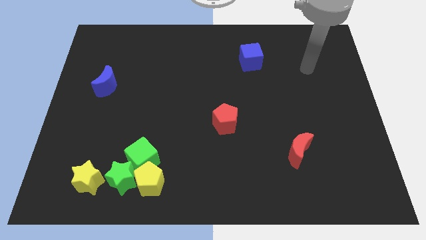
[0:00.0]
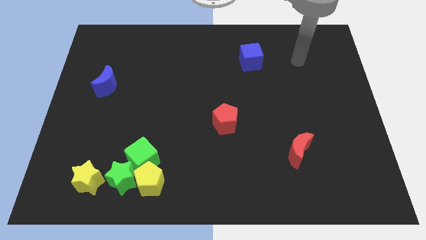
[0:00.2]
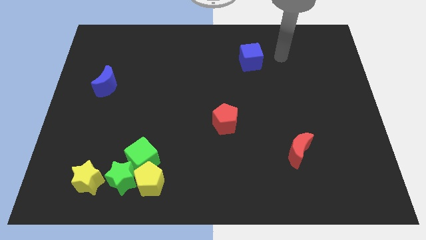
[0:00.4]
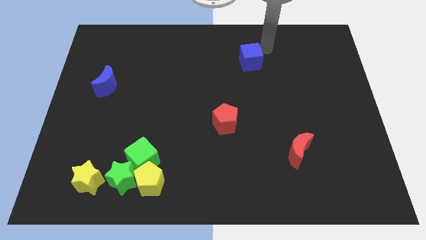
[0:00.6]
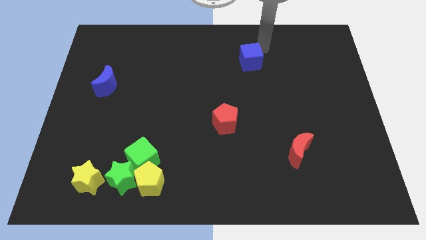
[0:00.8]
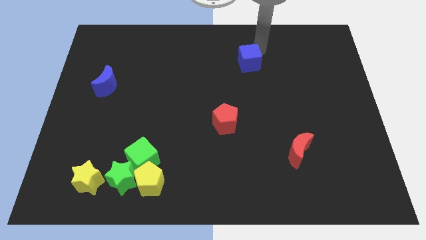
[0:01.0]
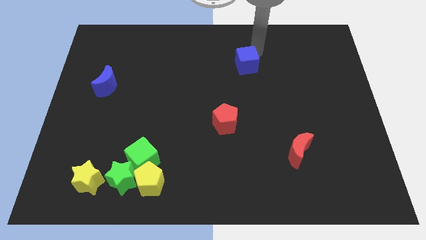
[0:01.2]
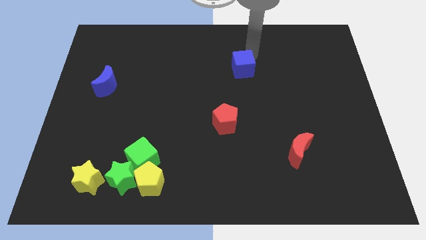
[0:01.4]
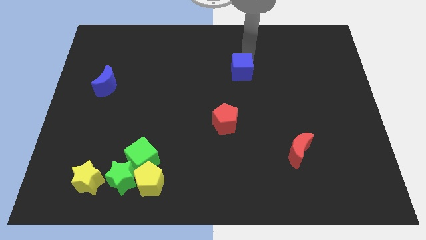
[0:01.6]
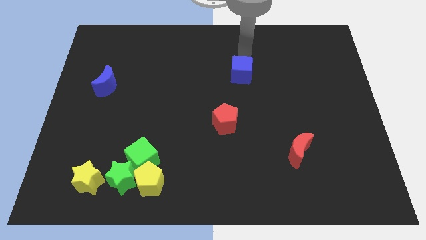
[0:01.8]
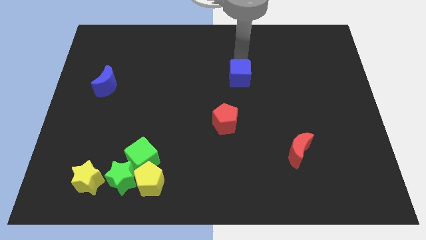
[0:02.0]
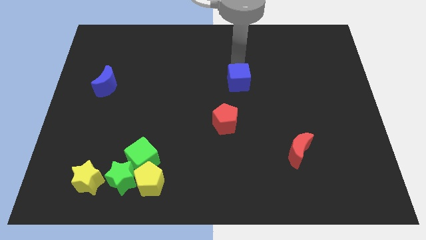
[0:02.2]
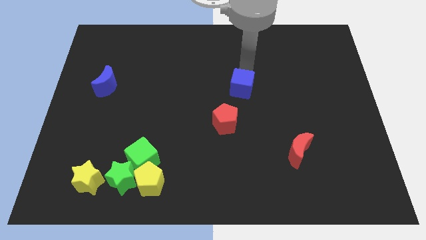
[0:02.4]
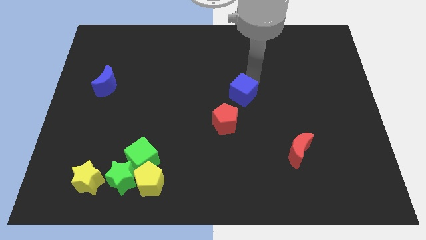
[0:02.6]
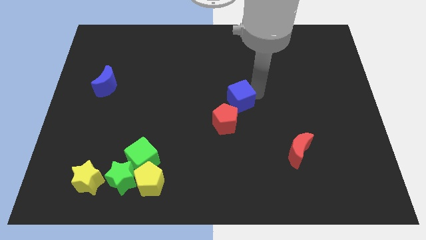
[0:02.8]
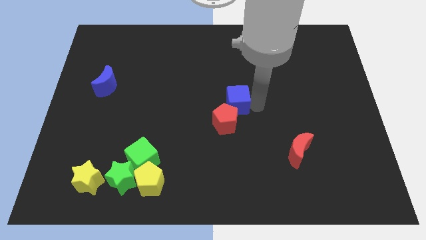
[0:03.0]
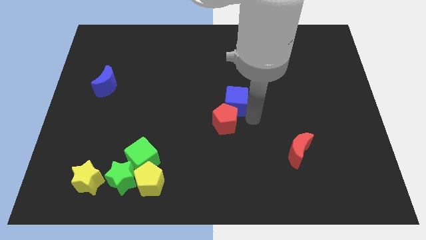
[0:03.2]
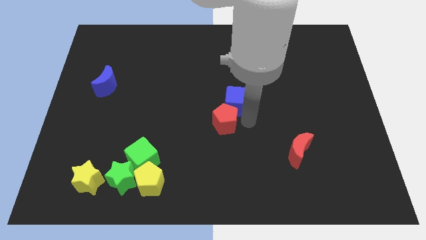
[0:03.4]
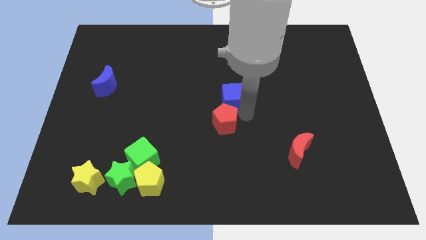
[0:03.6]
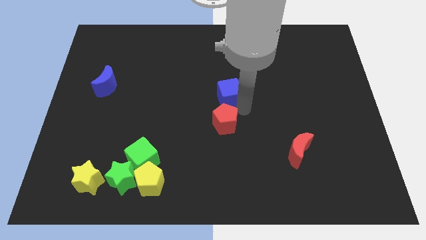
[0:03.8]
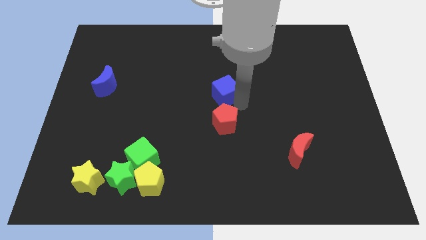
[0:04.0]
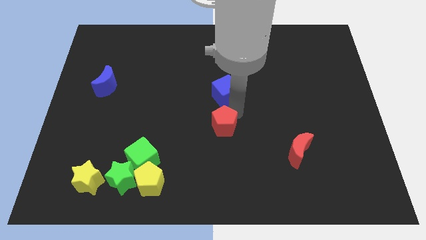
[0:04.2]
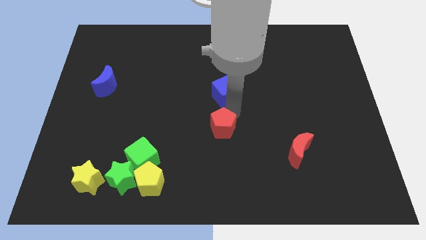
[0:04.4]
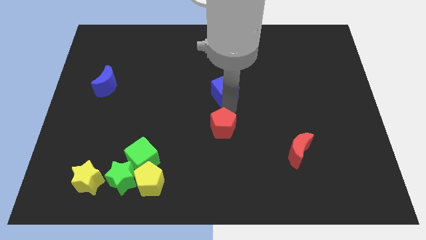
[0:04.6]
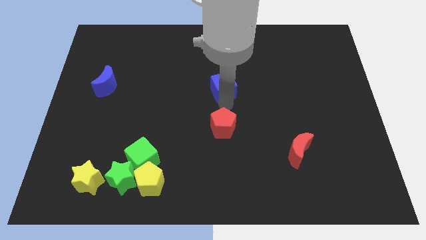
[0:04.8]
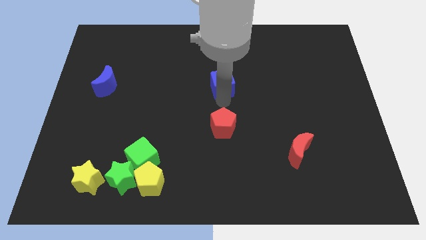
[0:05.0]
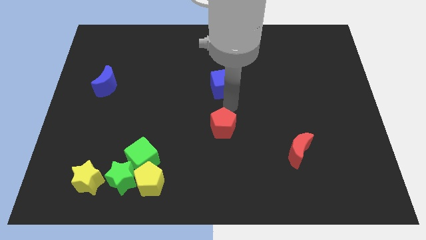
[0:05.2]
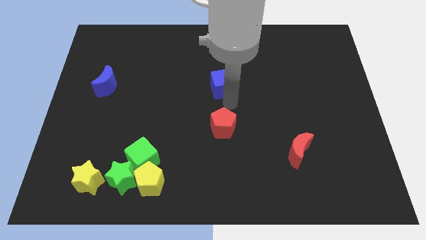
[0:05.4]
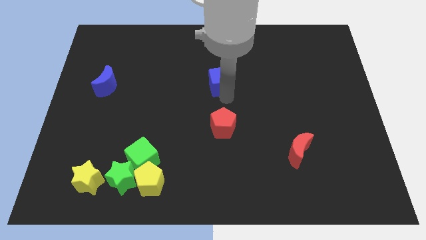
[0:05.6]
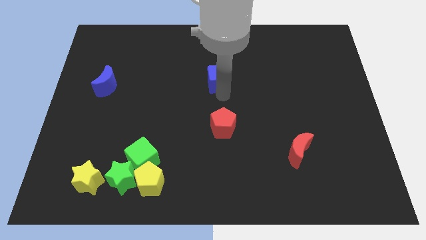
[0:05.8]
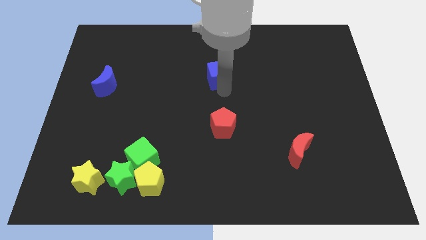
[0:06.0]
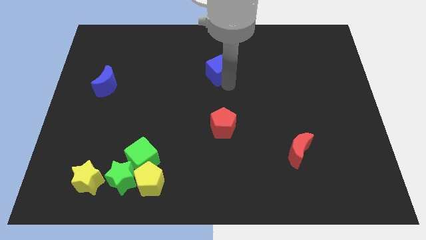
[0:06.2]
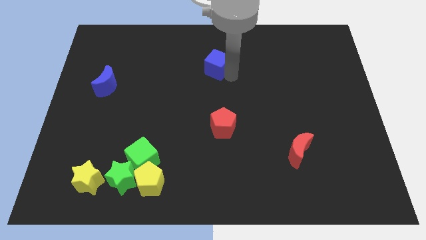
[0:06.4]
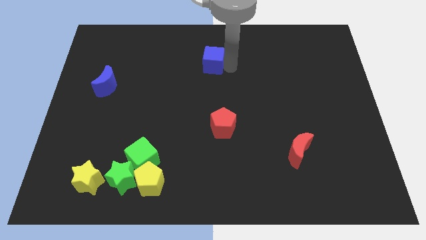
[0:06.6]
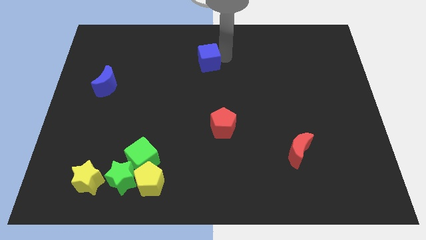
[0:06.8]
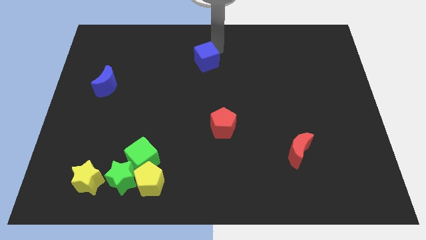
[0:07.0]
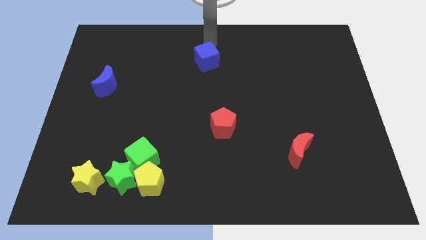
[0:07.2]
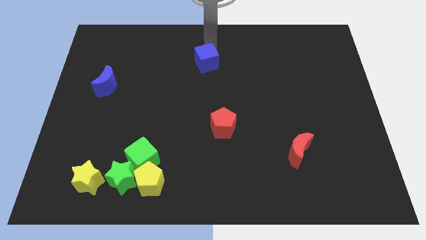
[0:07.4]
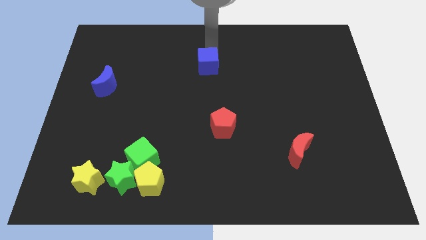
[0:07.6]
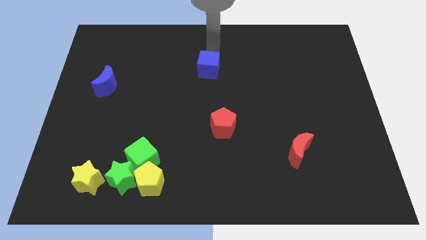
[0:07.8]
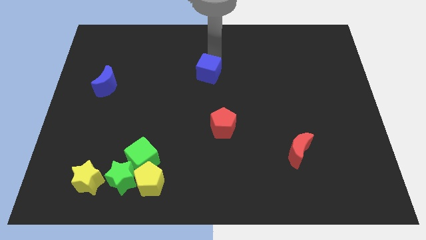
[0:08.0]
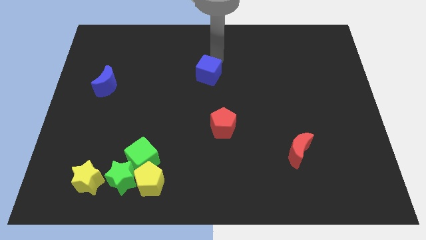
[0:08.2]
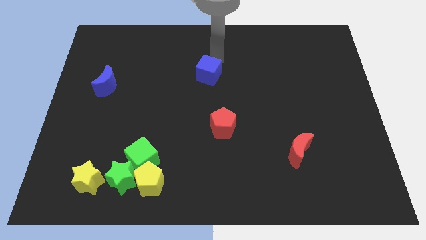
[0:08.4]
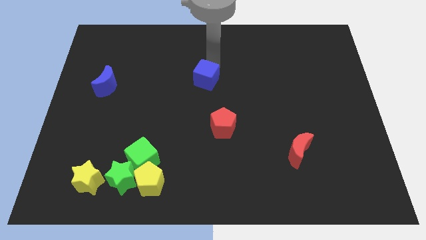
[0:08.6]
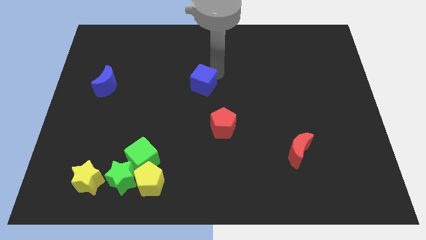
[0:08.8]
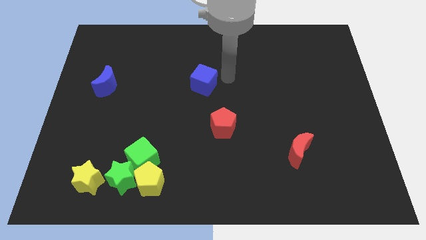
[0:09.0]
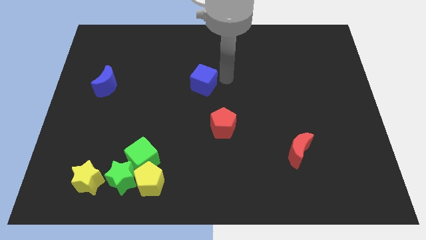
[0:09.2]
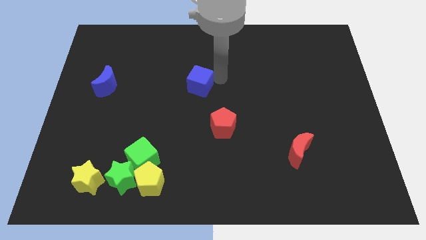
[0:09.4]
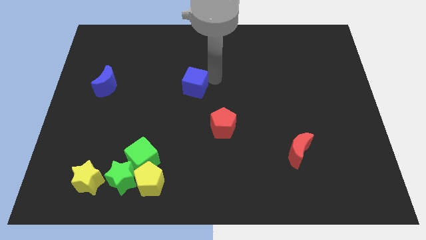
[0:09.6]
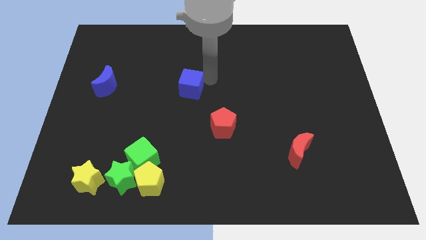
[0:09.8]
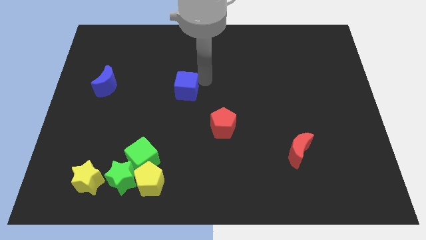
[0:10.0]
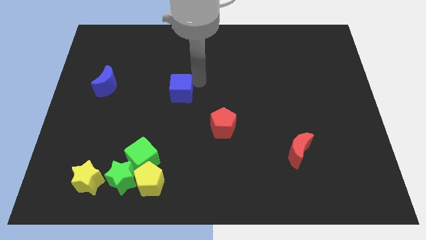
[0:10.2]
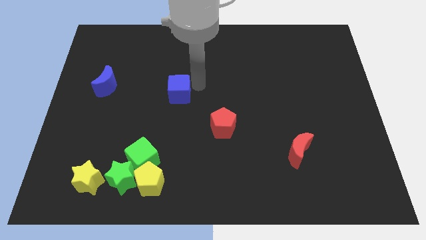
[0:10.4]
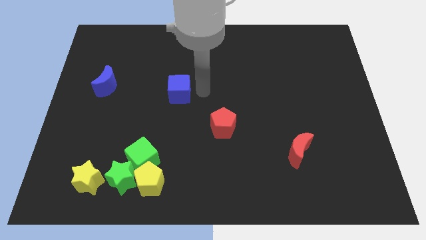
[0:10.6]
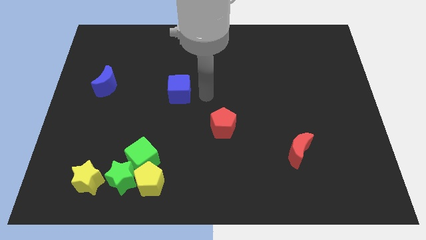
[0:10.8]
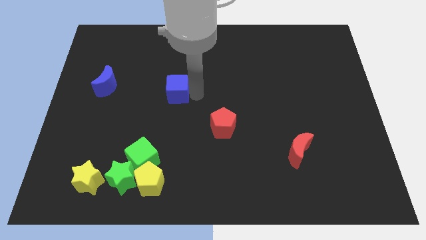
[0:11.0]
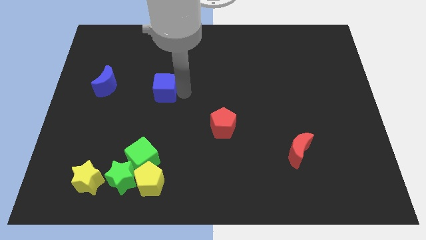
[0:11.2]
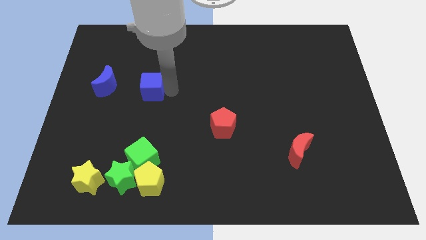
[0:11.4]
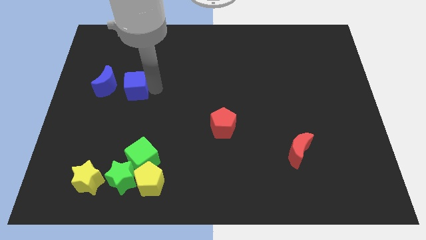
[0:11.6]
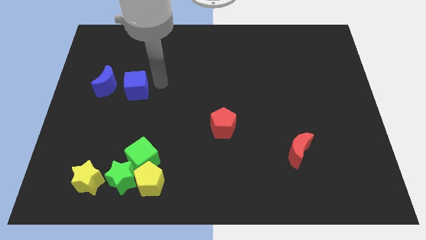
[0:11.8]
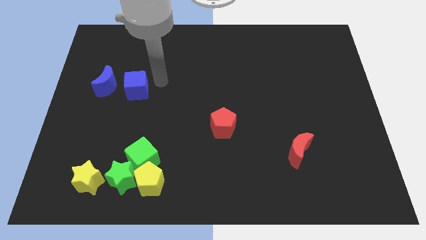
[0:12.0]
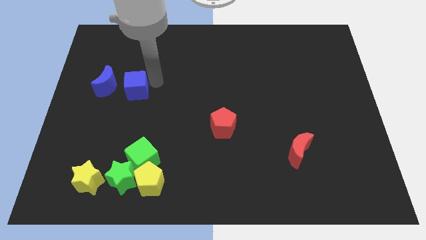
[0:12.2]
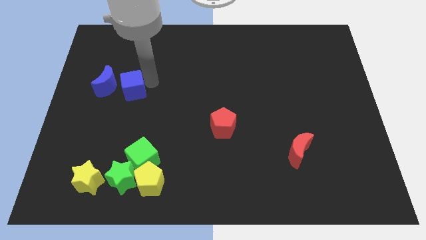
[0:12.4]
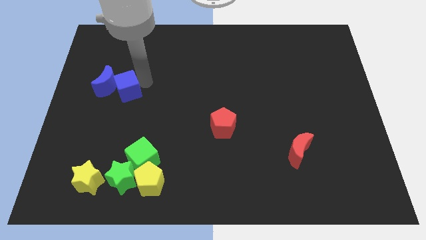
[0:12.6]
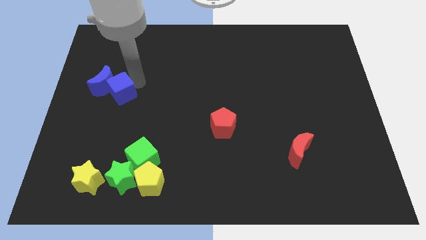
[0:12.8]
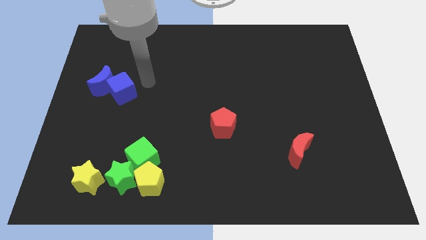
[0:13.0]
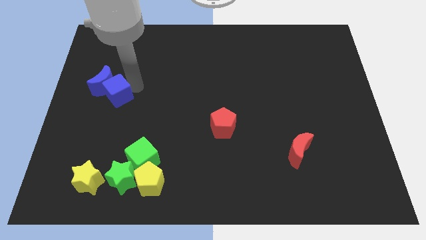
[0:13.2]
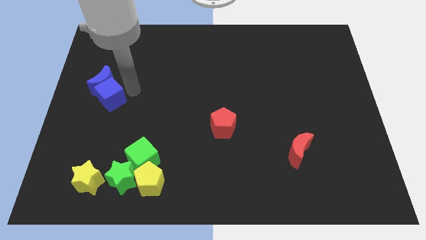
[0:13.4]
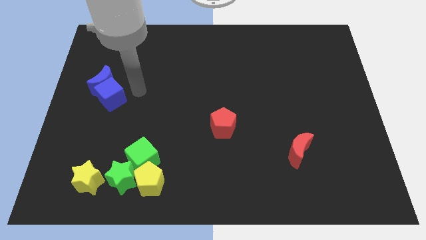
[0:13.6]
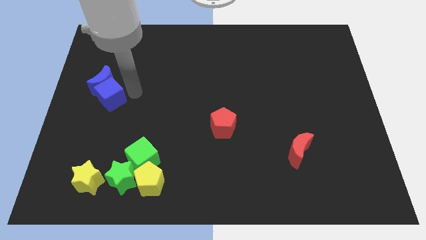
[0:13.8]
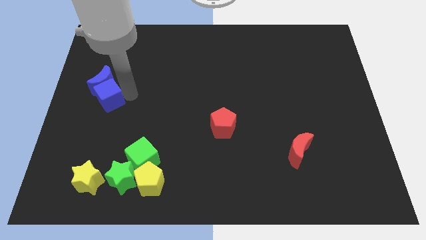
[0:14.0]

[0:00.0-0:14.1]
put the blue cube to the center left
